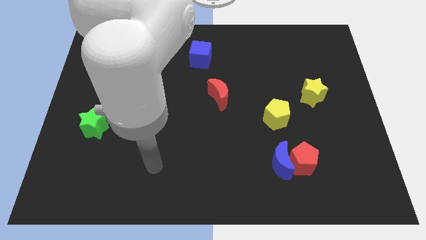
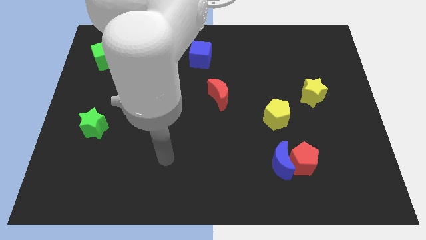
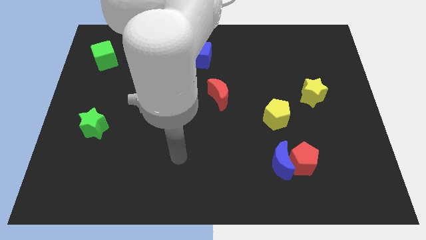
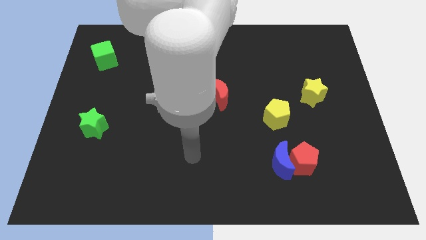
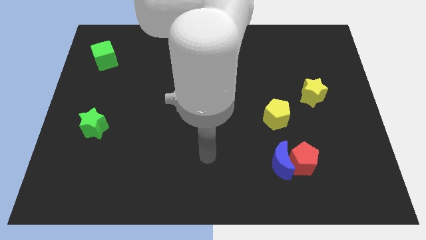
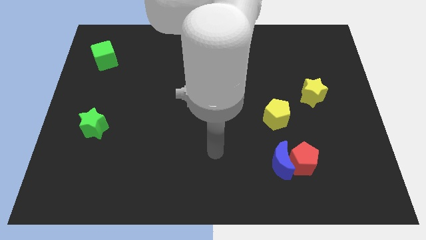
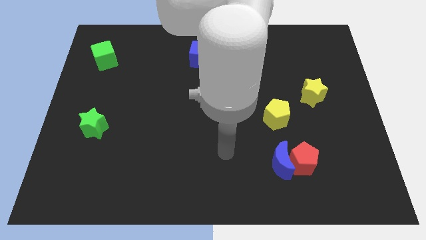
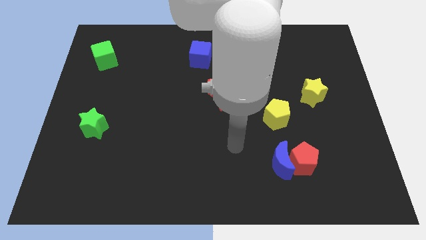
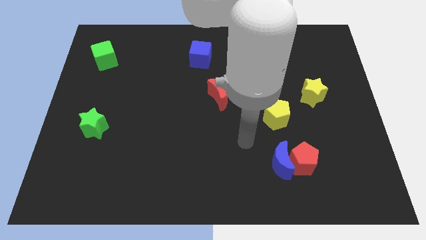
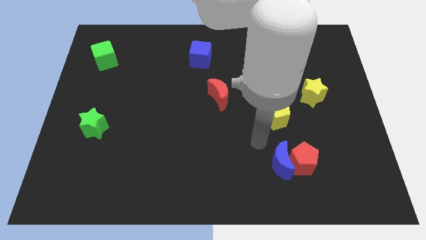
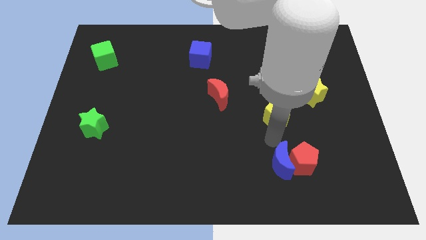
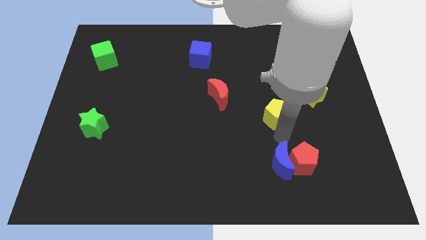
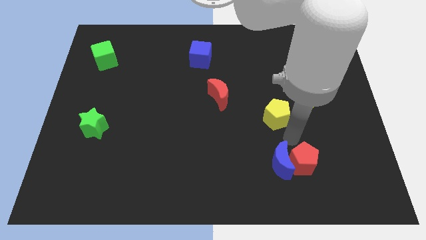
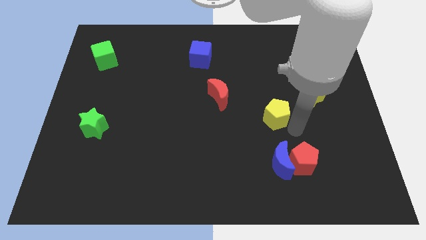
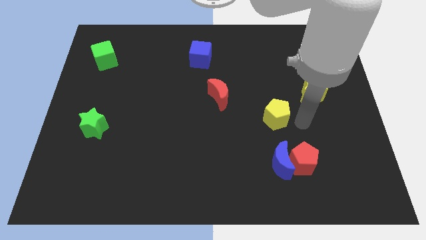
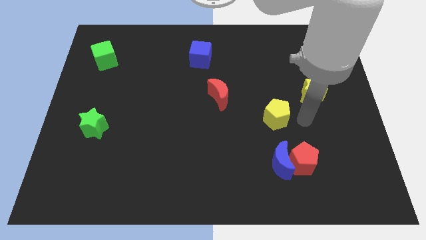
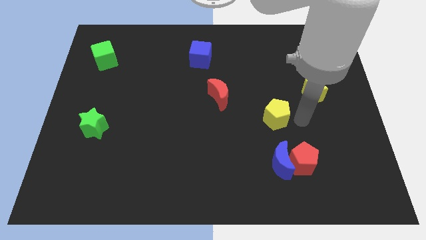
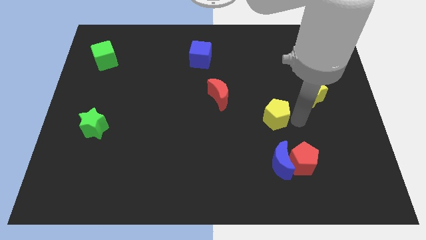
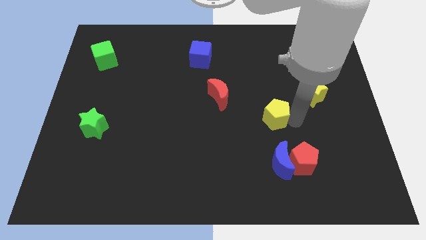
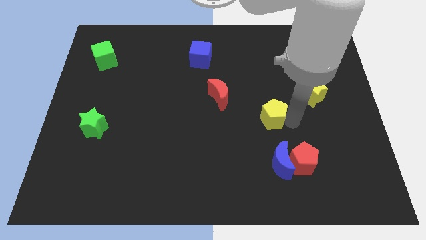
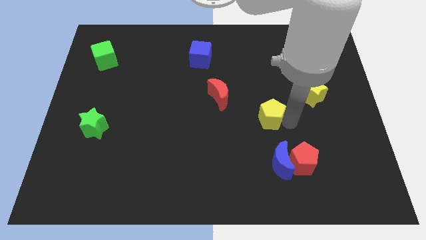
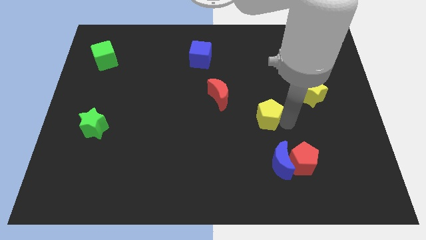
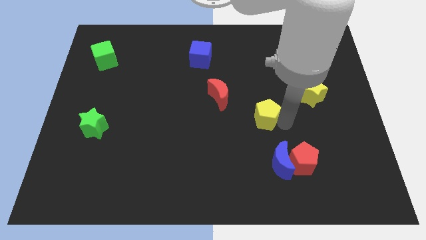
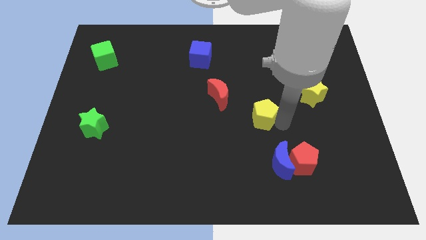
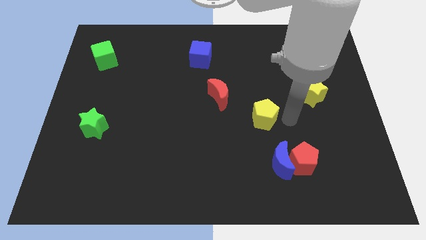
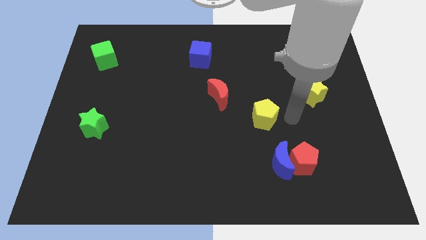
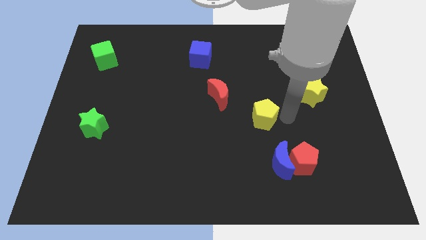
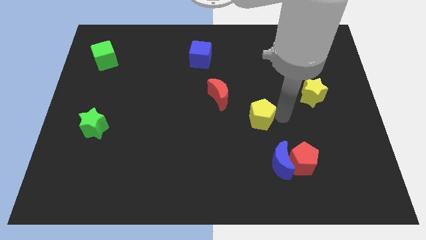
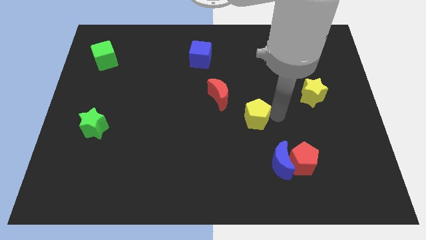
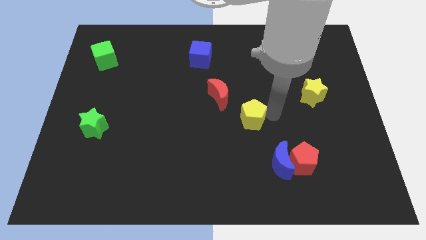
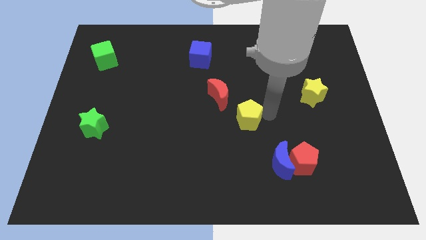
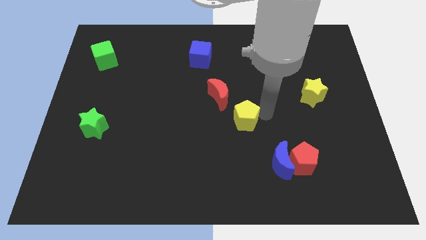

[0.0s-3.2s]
move the yellow pentagon left a bit

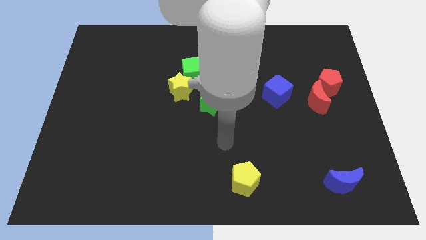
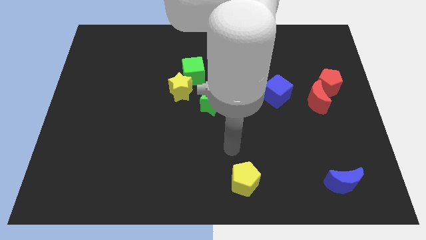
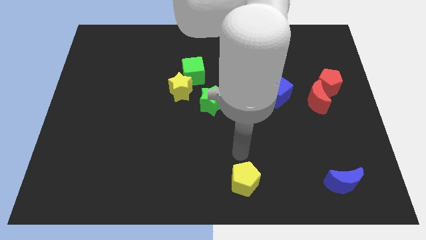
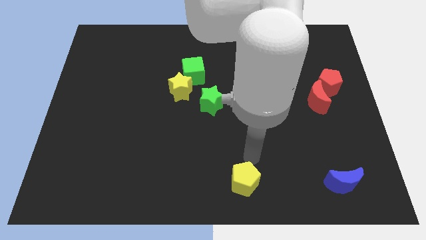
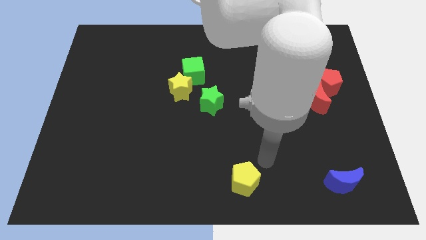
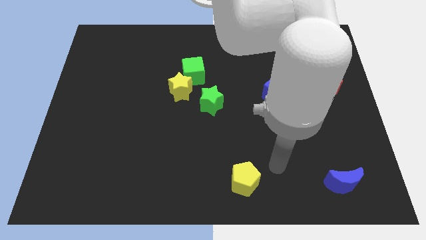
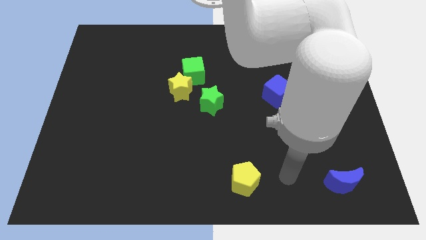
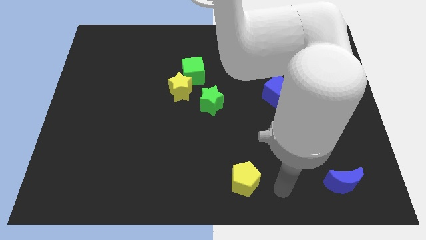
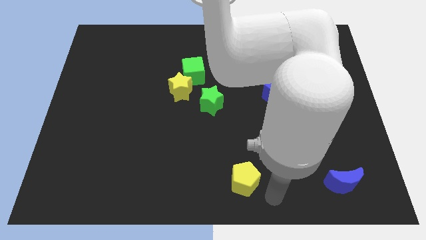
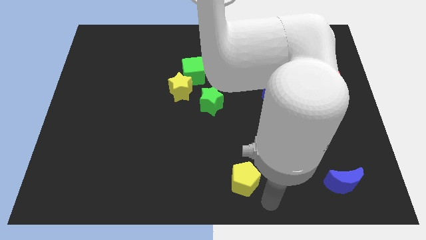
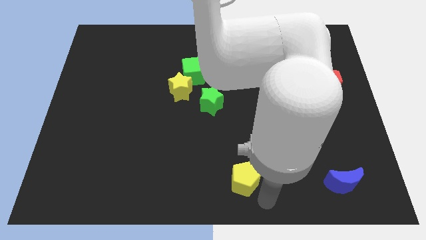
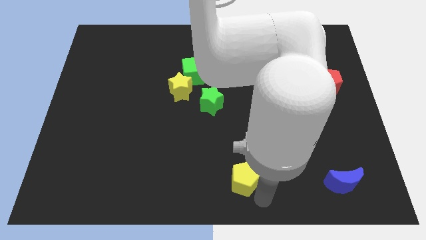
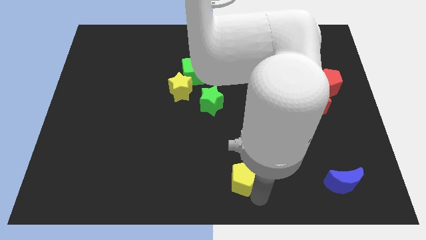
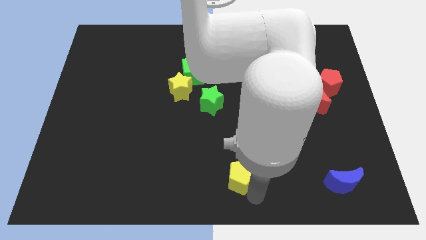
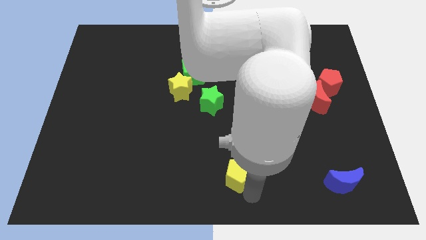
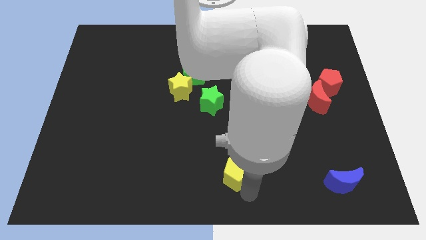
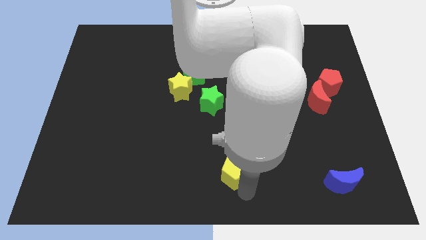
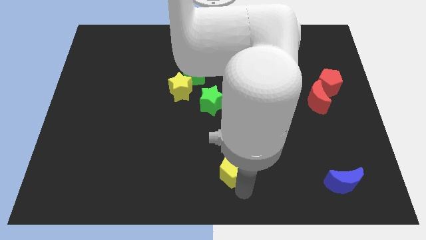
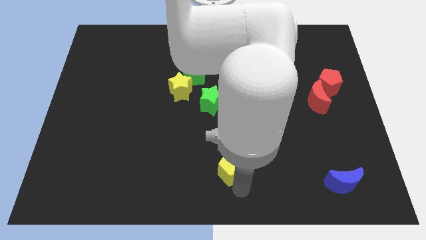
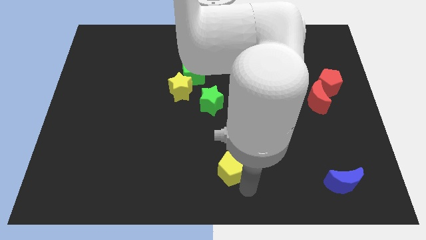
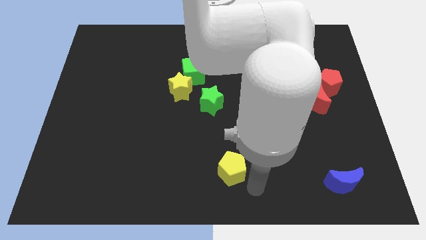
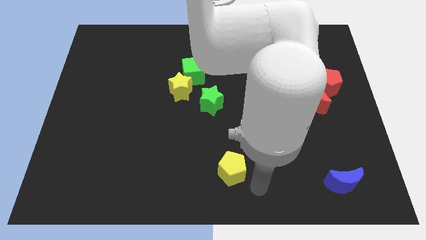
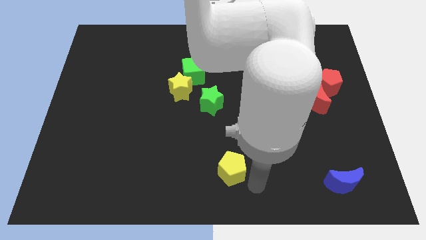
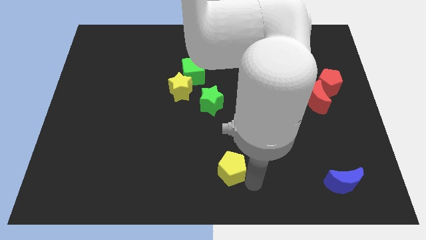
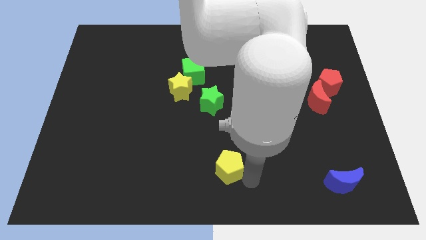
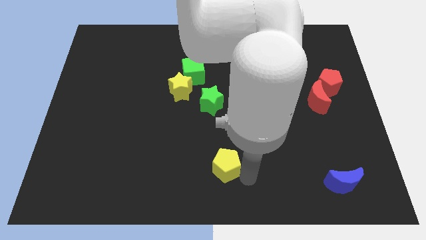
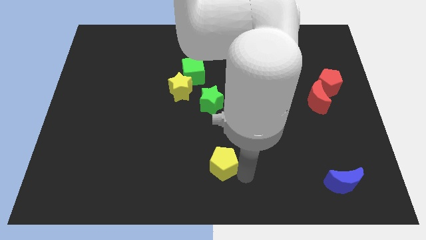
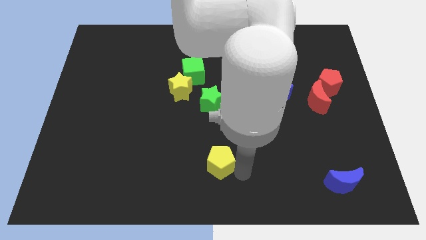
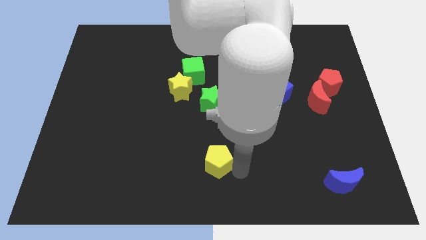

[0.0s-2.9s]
slide the yellow pentagon upwards and then left a little bit

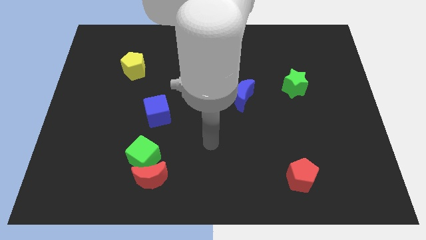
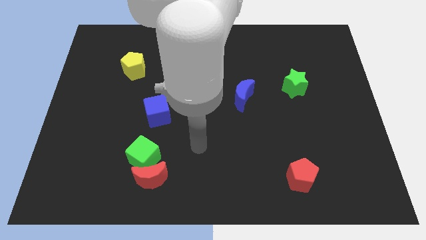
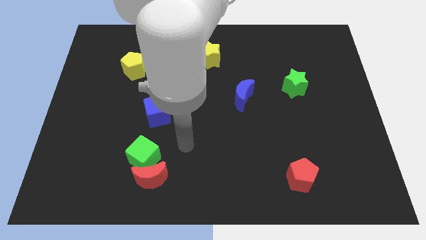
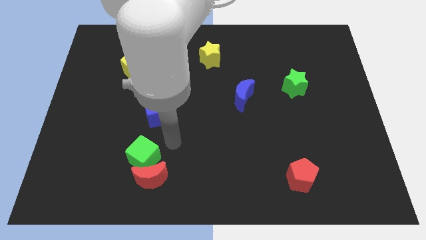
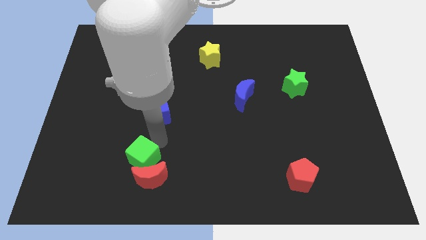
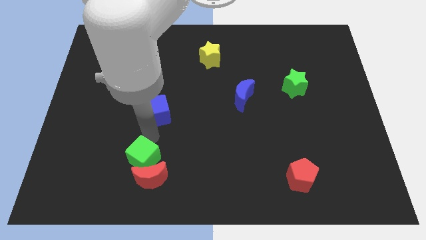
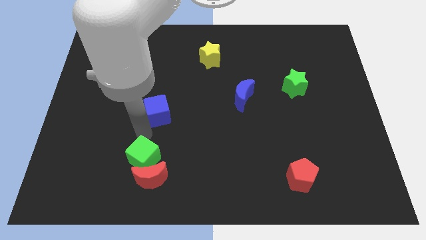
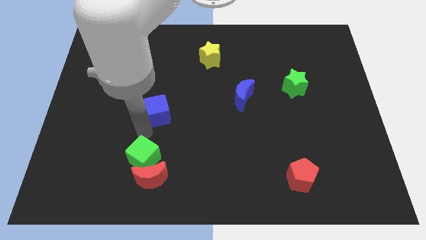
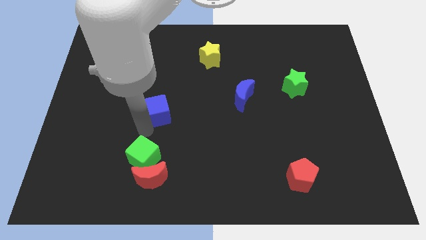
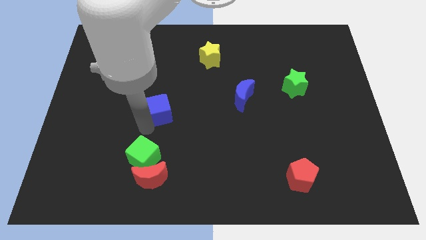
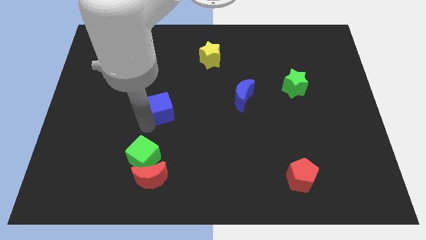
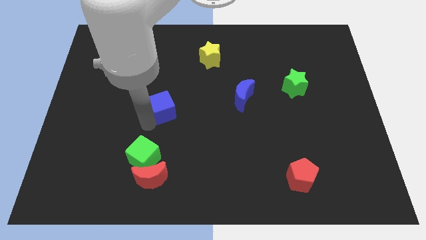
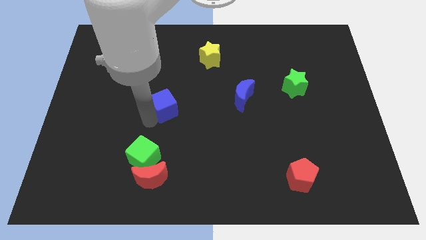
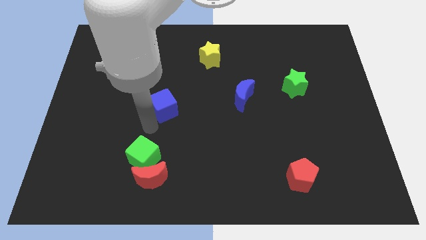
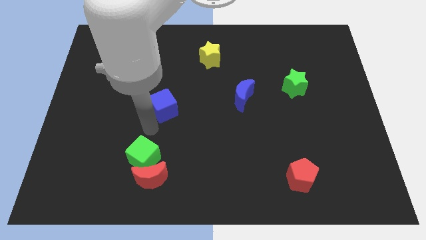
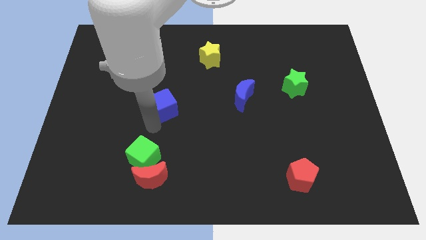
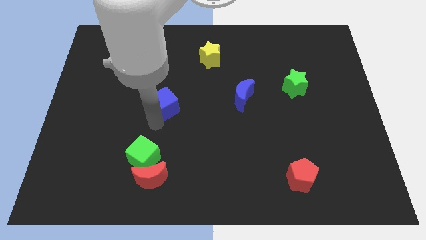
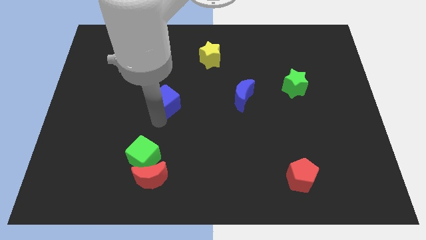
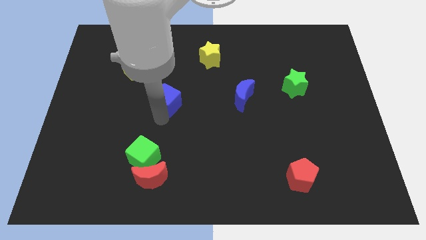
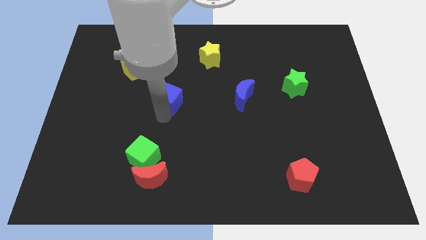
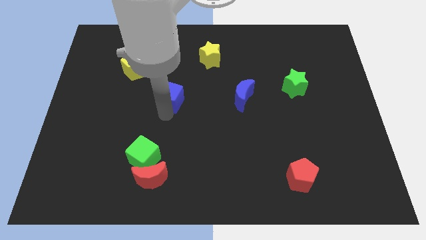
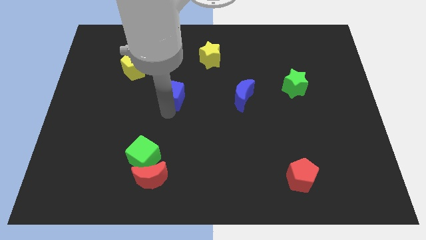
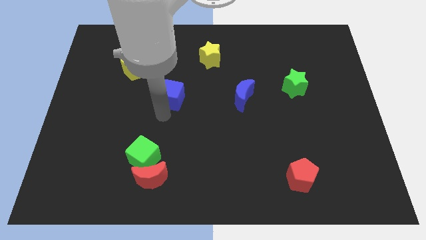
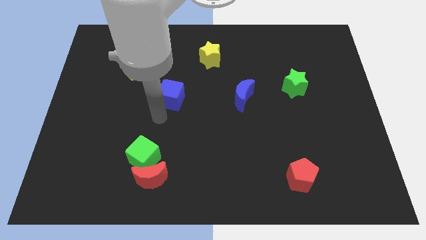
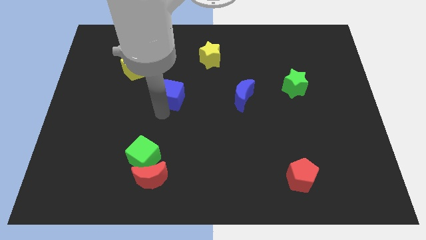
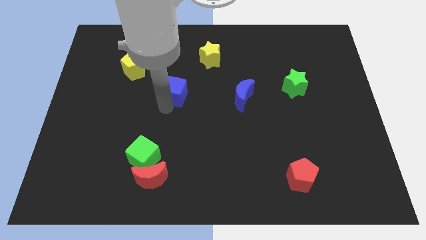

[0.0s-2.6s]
slide the blue cube up and right diagonally slightly
